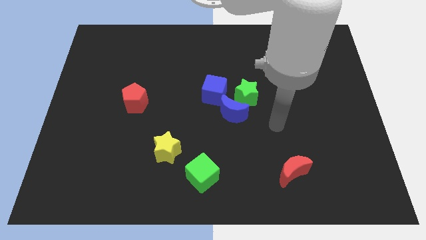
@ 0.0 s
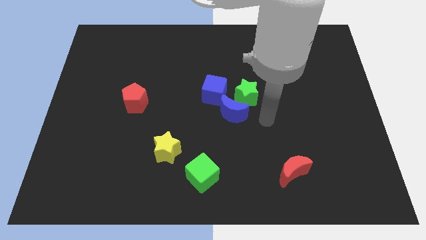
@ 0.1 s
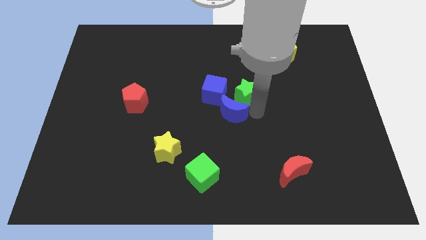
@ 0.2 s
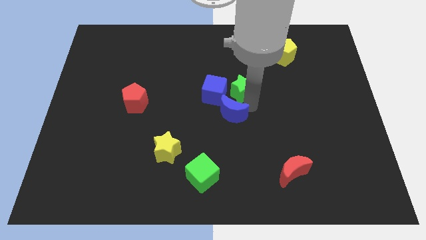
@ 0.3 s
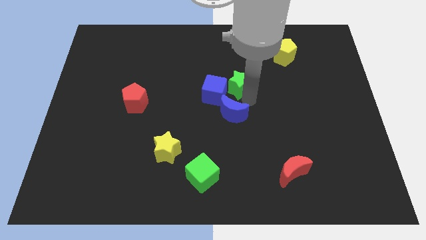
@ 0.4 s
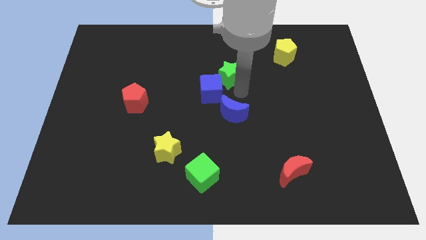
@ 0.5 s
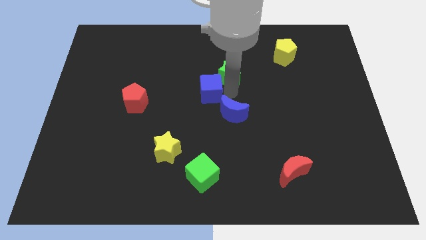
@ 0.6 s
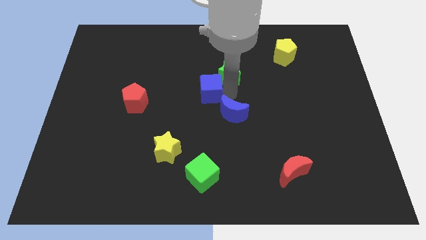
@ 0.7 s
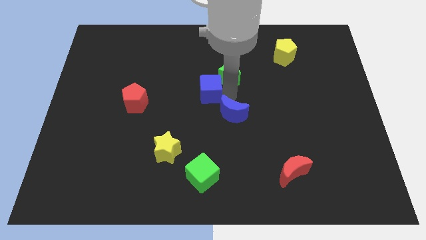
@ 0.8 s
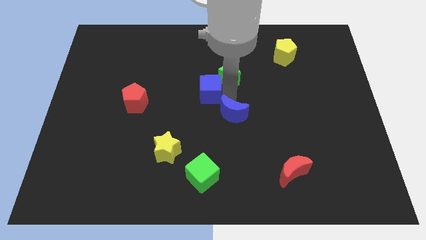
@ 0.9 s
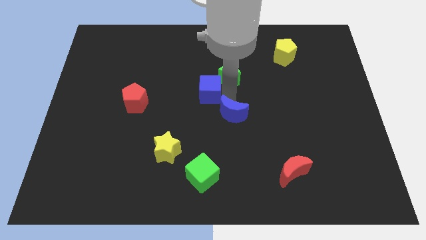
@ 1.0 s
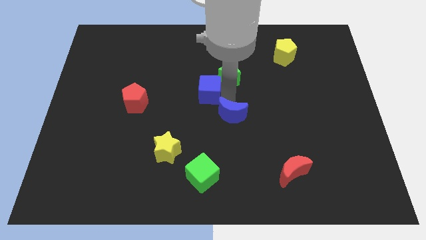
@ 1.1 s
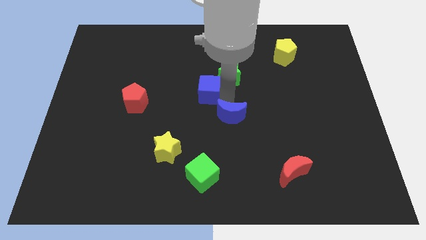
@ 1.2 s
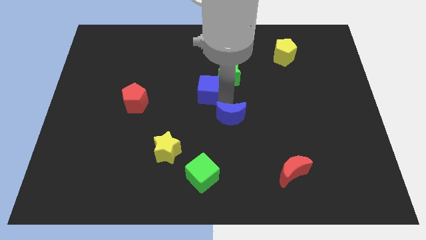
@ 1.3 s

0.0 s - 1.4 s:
pull the blue moon apart from the green star and blue cube

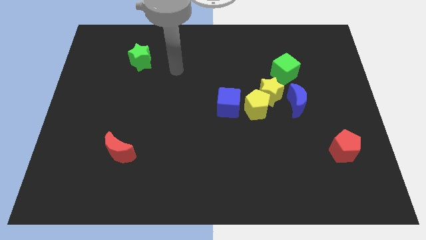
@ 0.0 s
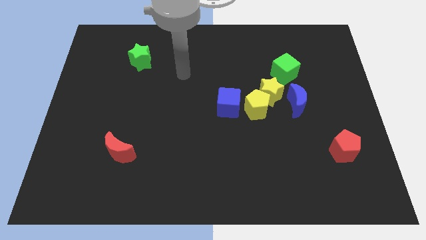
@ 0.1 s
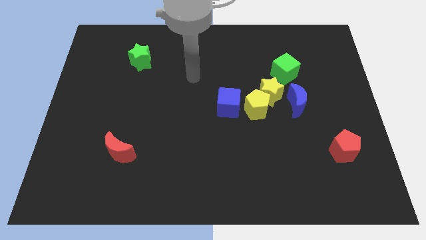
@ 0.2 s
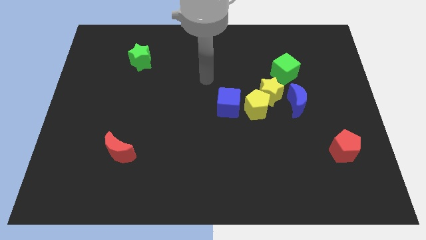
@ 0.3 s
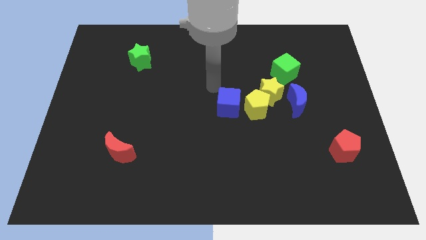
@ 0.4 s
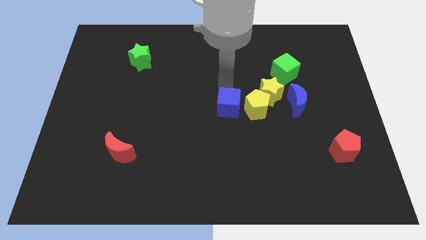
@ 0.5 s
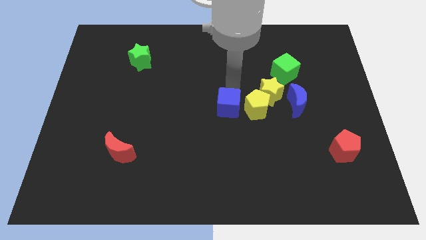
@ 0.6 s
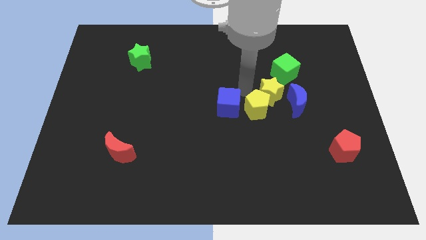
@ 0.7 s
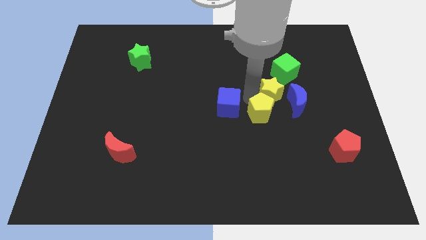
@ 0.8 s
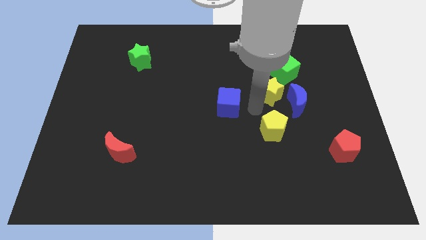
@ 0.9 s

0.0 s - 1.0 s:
move the blue cube away from the yellow pentagon

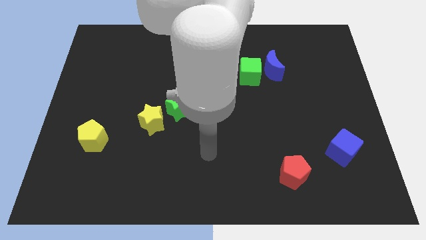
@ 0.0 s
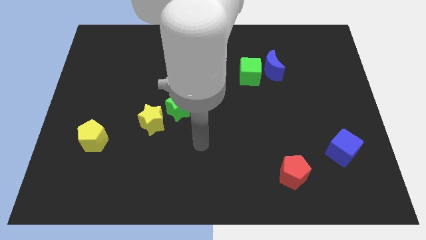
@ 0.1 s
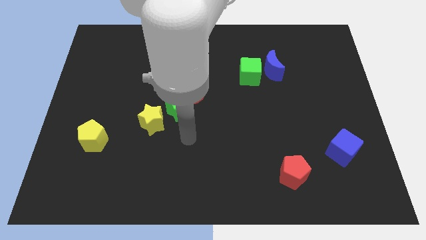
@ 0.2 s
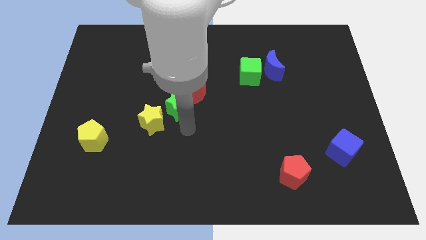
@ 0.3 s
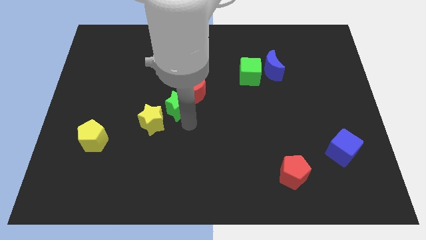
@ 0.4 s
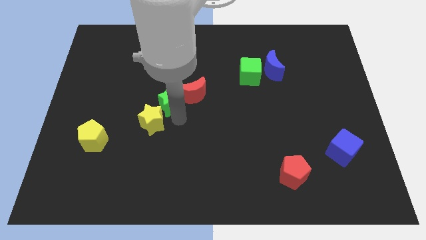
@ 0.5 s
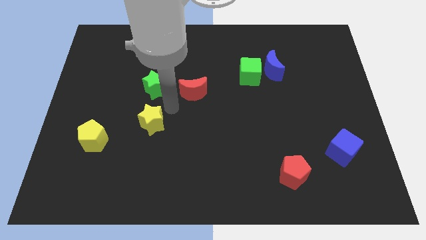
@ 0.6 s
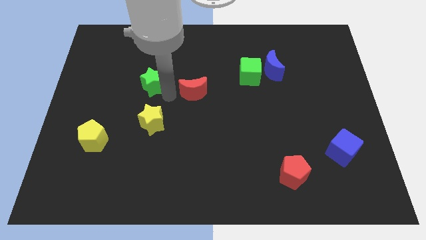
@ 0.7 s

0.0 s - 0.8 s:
move the red moon away from the green star

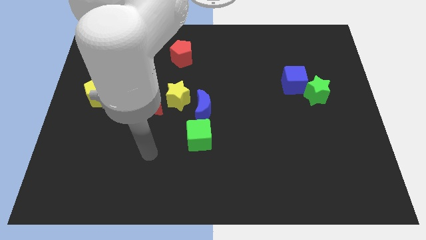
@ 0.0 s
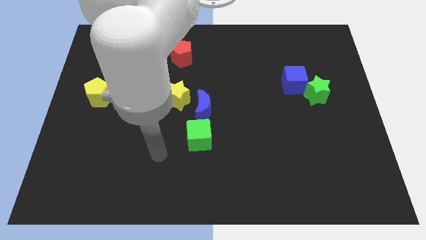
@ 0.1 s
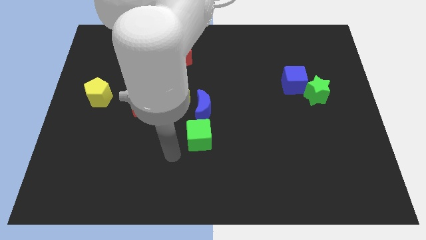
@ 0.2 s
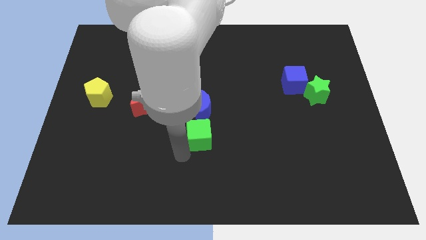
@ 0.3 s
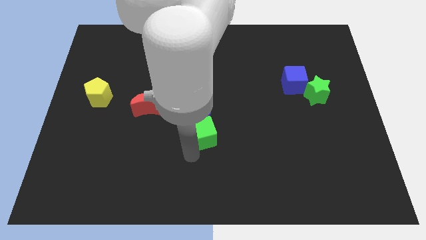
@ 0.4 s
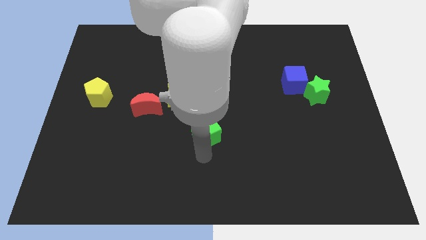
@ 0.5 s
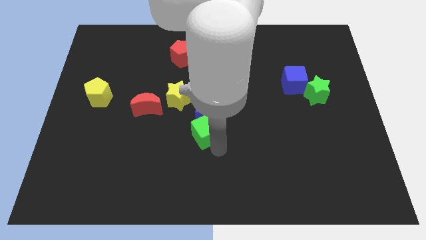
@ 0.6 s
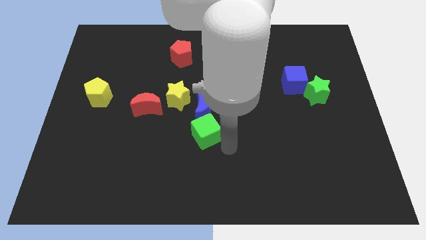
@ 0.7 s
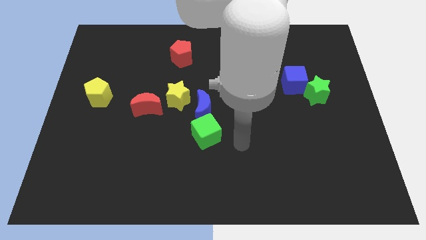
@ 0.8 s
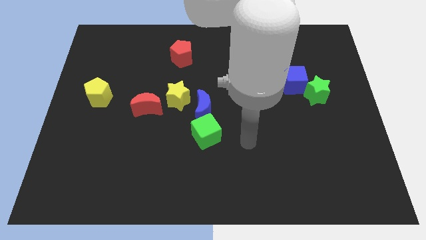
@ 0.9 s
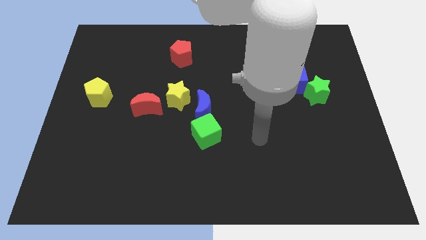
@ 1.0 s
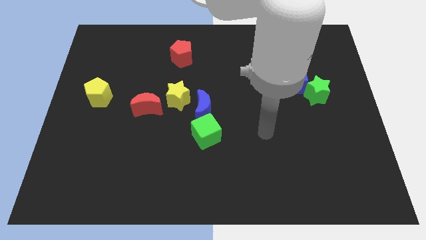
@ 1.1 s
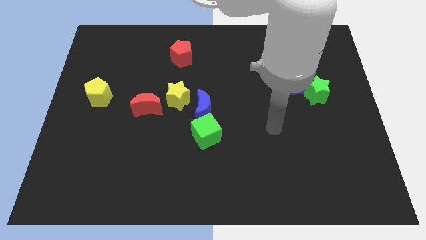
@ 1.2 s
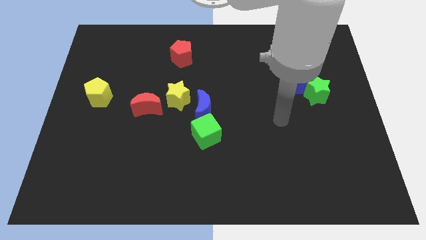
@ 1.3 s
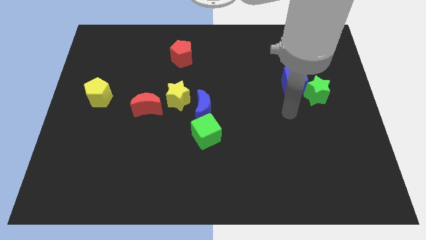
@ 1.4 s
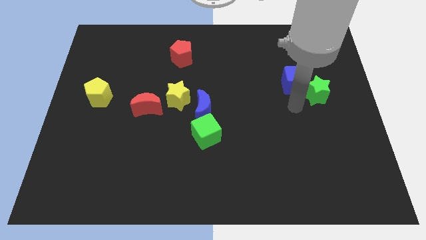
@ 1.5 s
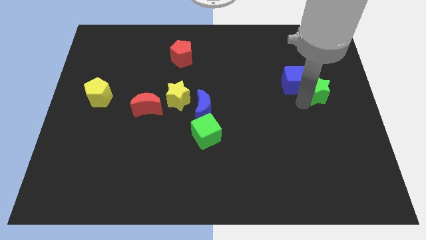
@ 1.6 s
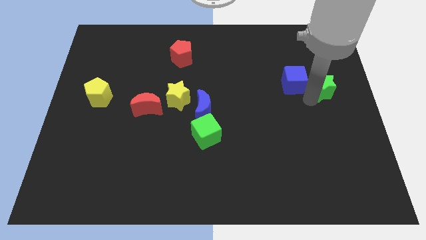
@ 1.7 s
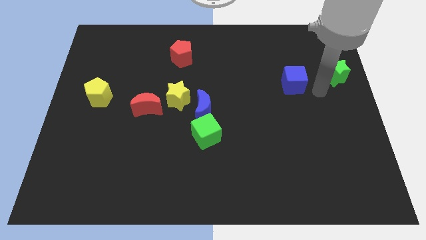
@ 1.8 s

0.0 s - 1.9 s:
pull the blue cube apart from the green star

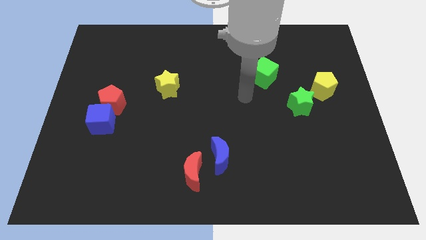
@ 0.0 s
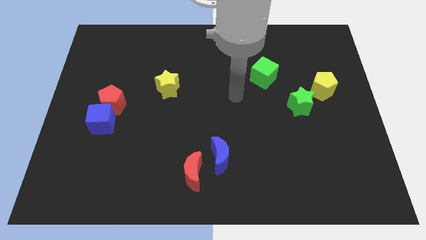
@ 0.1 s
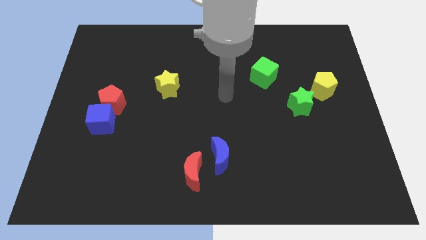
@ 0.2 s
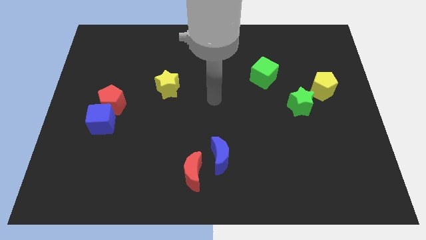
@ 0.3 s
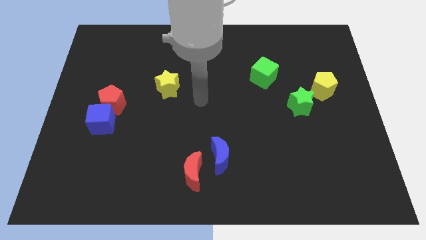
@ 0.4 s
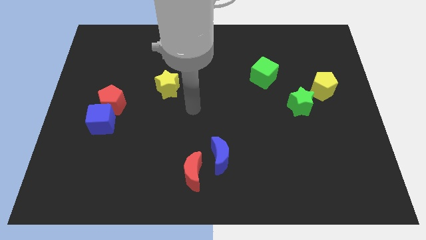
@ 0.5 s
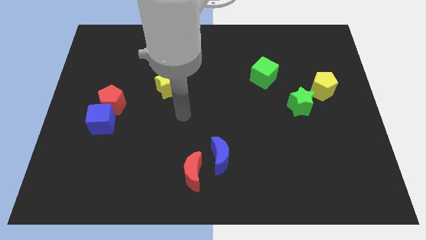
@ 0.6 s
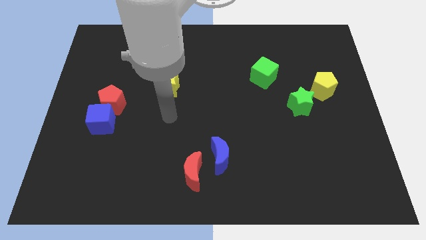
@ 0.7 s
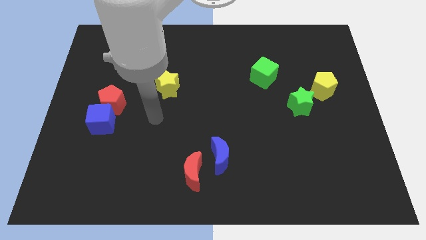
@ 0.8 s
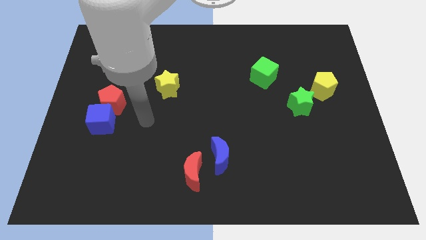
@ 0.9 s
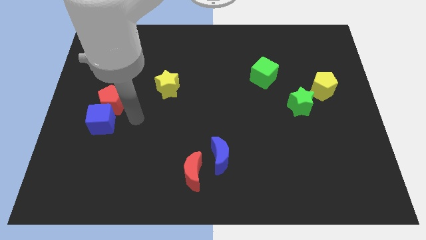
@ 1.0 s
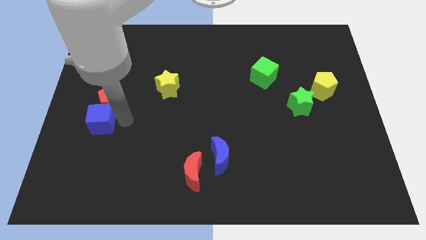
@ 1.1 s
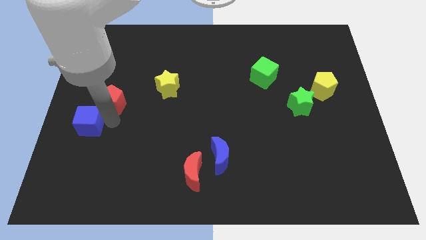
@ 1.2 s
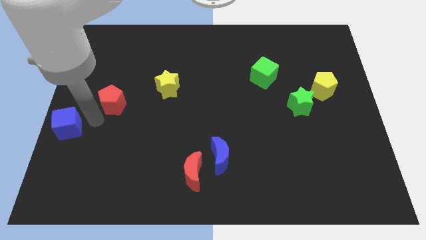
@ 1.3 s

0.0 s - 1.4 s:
move the red pentagon away from the blue cube

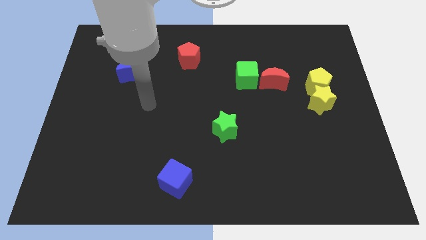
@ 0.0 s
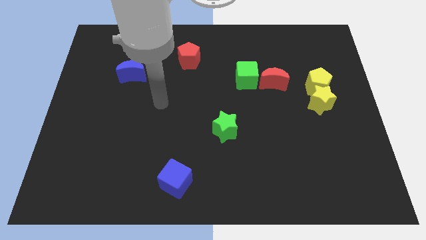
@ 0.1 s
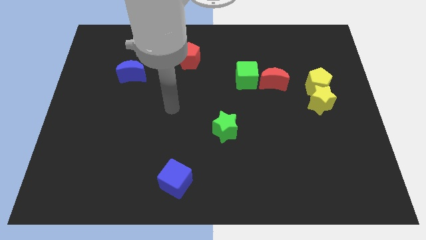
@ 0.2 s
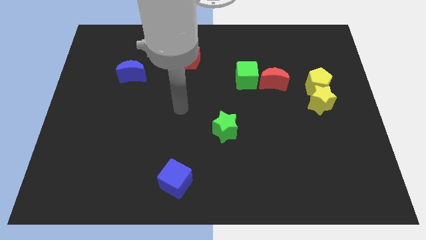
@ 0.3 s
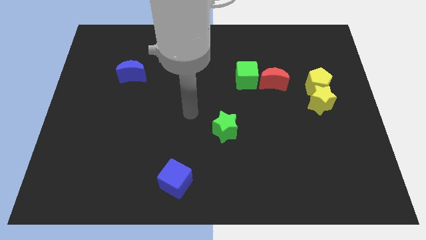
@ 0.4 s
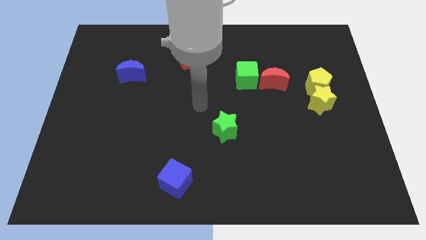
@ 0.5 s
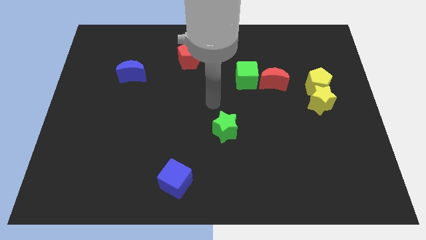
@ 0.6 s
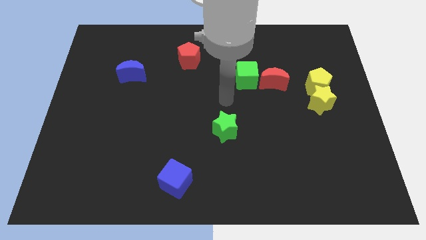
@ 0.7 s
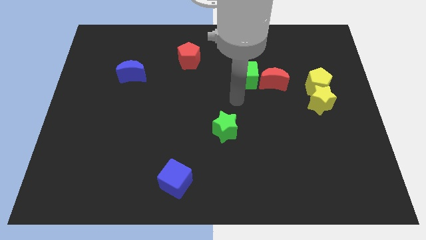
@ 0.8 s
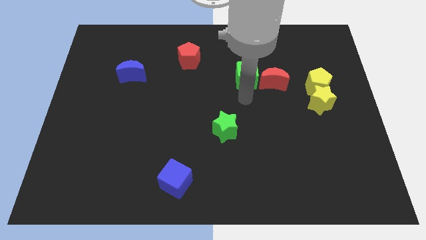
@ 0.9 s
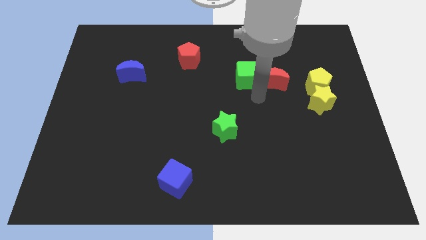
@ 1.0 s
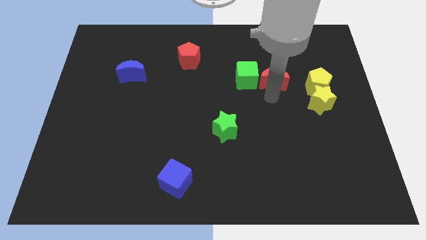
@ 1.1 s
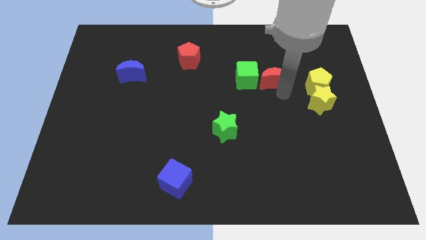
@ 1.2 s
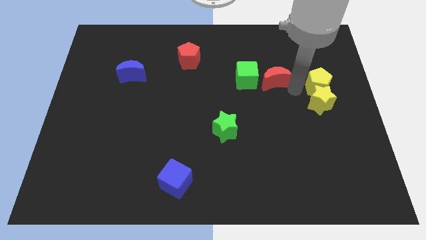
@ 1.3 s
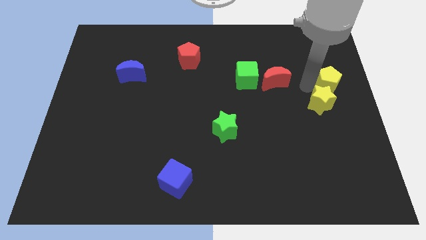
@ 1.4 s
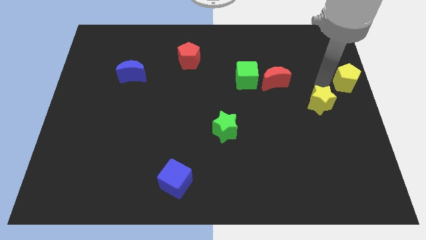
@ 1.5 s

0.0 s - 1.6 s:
separate the yellow star from the yellow pentagon

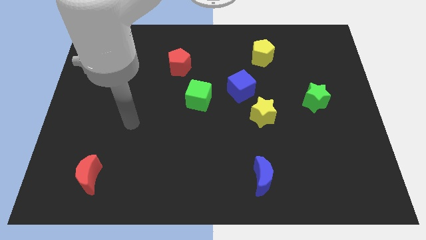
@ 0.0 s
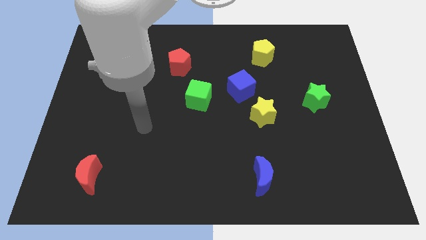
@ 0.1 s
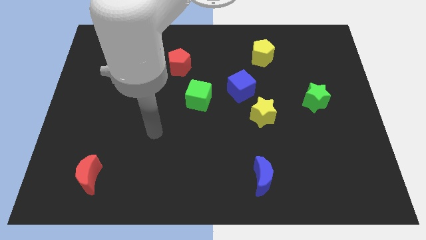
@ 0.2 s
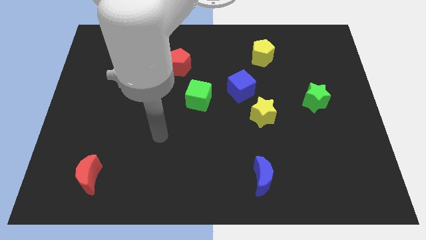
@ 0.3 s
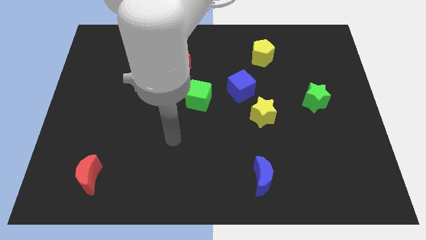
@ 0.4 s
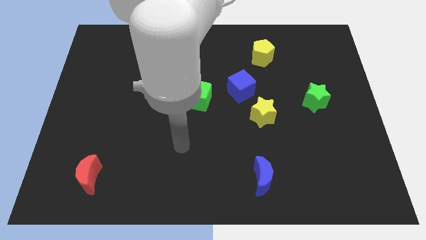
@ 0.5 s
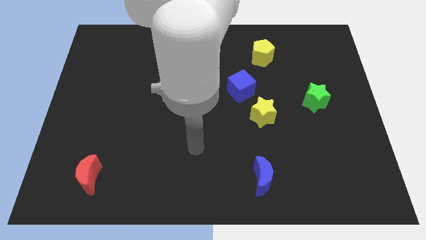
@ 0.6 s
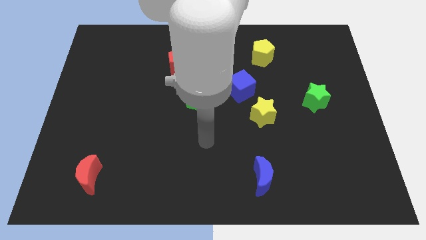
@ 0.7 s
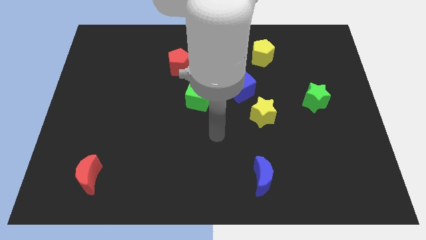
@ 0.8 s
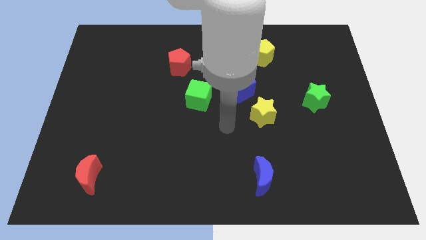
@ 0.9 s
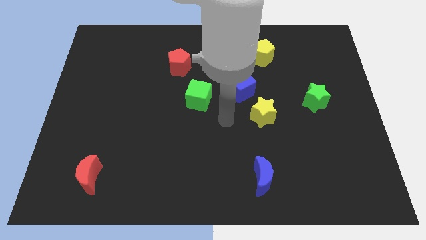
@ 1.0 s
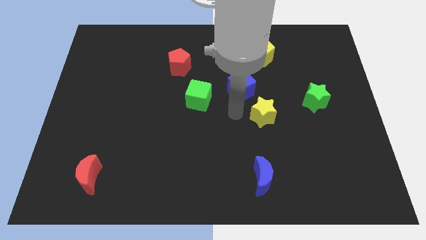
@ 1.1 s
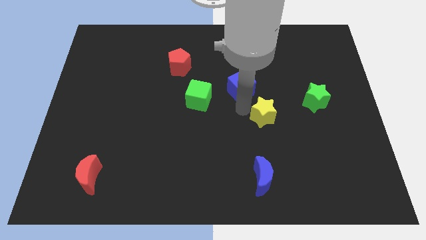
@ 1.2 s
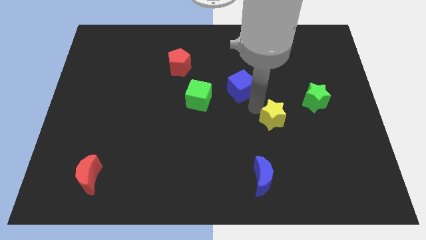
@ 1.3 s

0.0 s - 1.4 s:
pull the blue cube apart from the yellow star
